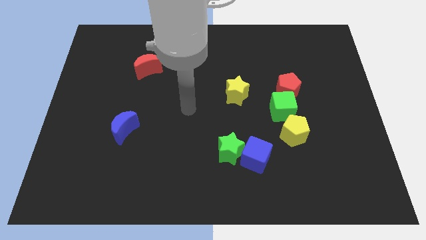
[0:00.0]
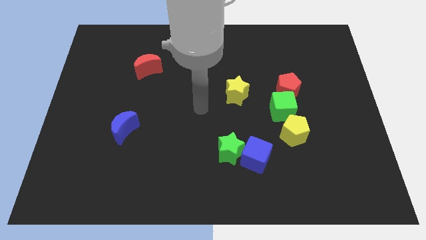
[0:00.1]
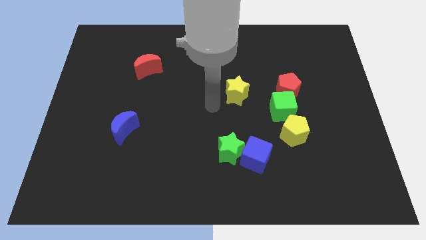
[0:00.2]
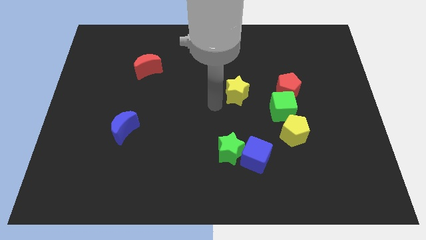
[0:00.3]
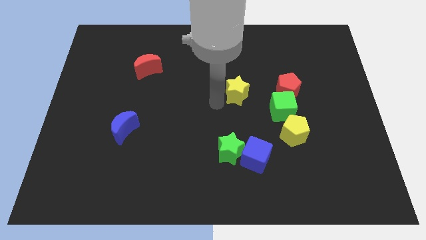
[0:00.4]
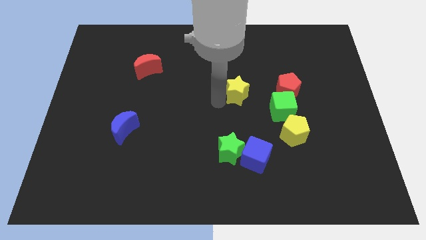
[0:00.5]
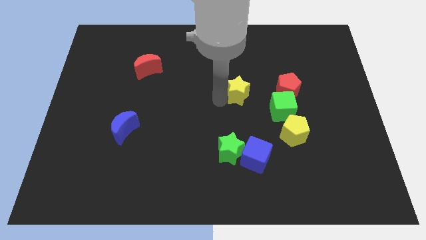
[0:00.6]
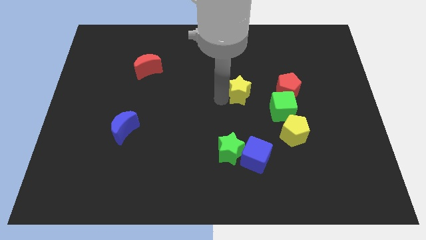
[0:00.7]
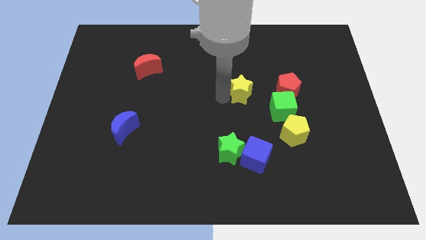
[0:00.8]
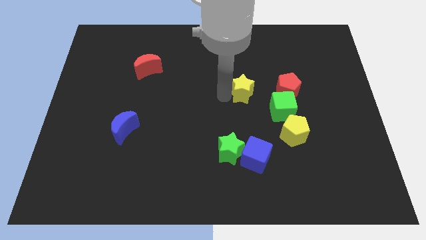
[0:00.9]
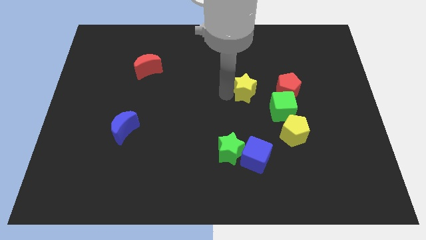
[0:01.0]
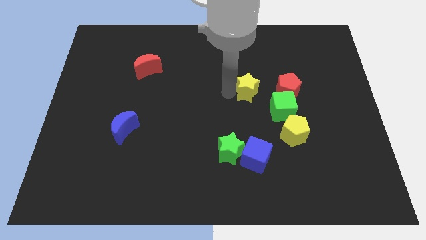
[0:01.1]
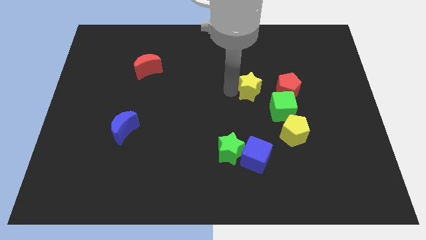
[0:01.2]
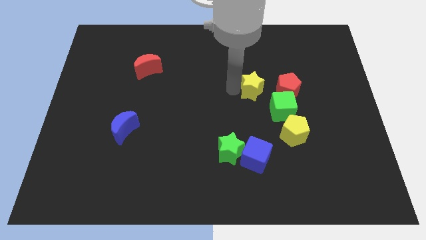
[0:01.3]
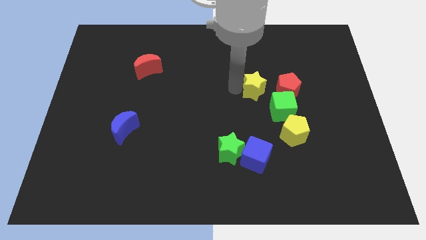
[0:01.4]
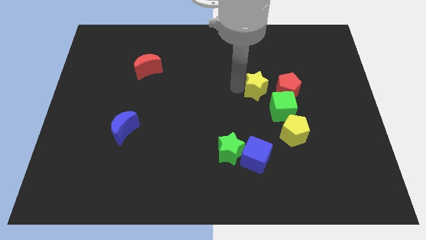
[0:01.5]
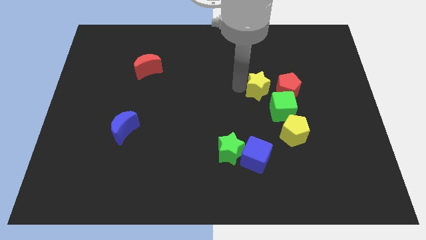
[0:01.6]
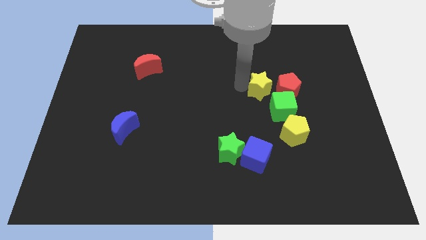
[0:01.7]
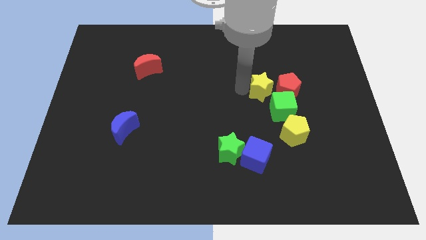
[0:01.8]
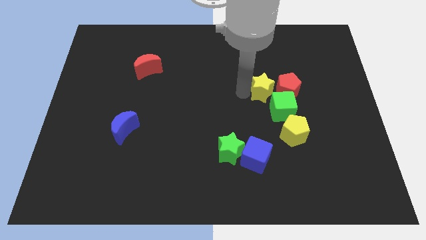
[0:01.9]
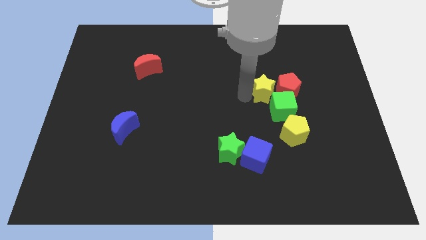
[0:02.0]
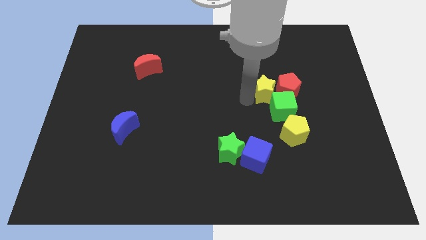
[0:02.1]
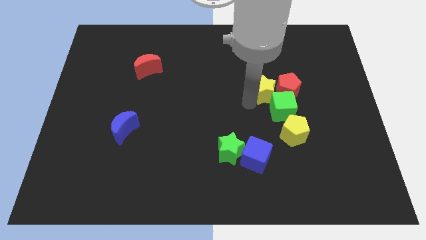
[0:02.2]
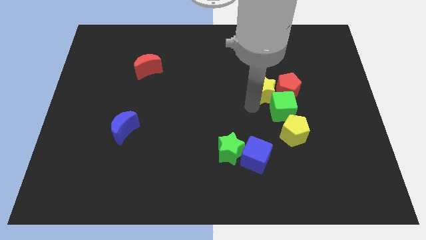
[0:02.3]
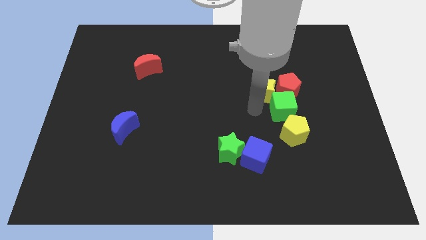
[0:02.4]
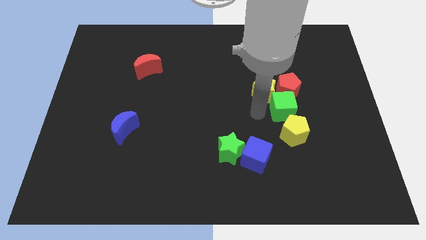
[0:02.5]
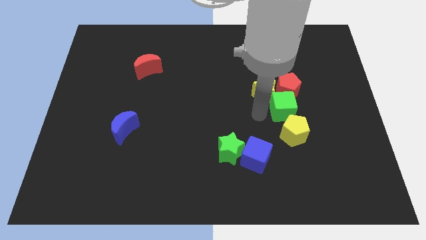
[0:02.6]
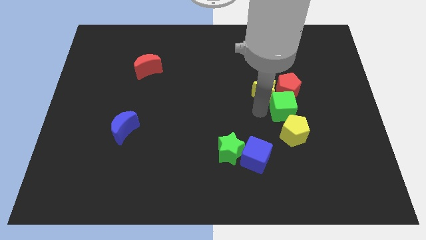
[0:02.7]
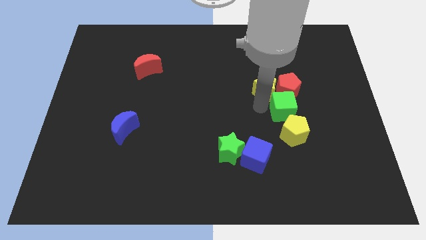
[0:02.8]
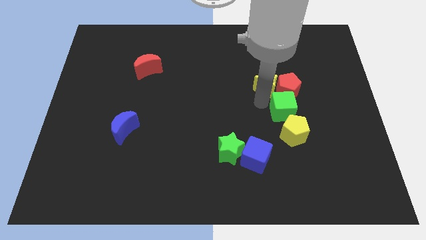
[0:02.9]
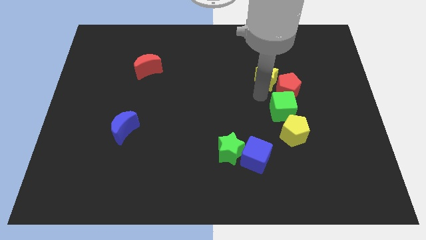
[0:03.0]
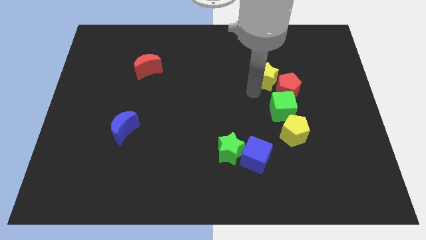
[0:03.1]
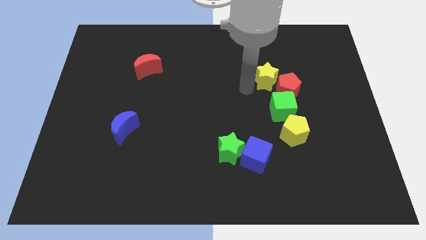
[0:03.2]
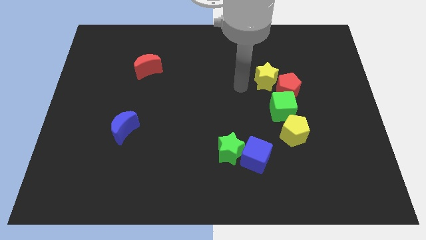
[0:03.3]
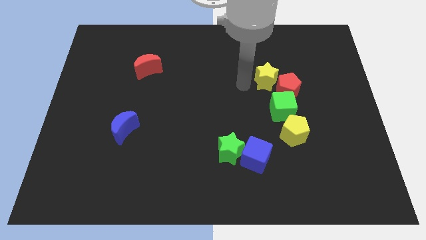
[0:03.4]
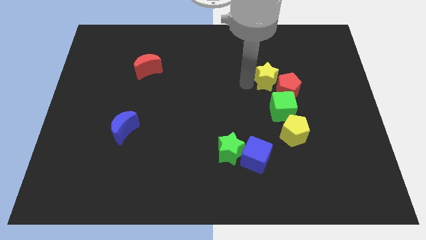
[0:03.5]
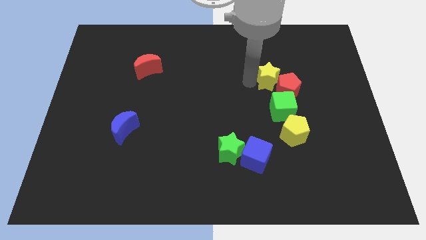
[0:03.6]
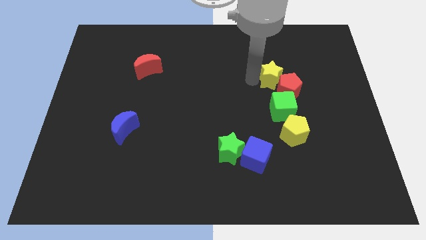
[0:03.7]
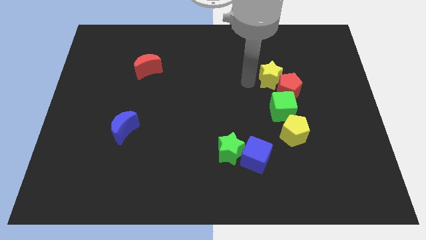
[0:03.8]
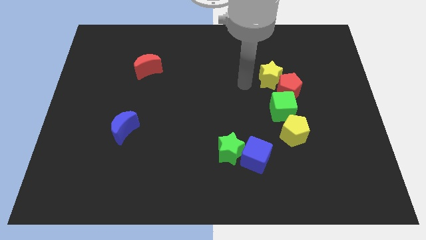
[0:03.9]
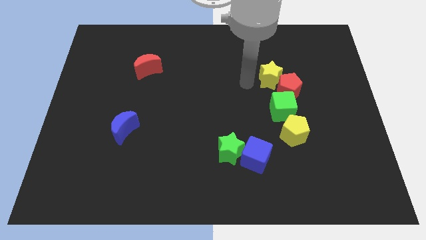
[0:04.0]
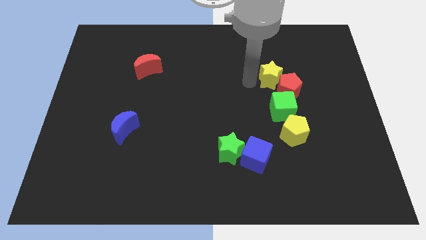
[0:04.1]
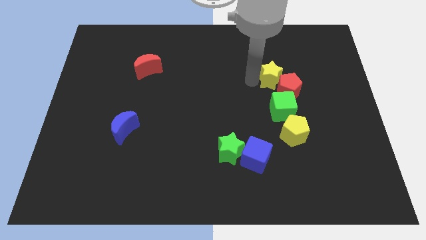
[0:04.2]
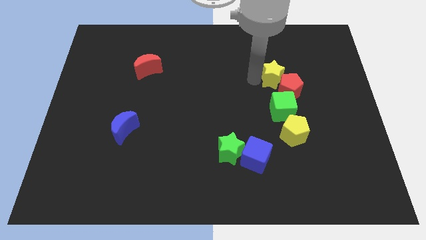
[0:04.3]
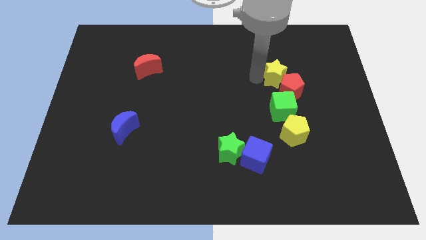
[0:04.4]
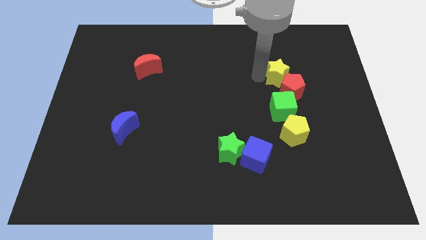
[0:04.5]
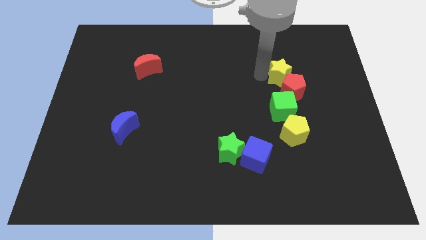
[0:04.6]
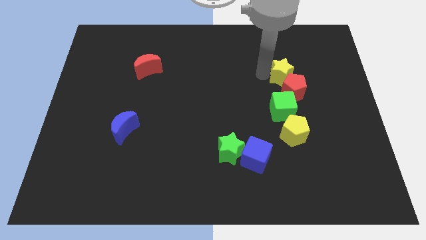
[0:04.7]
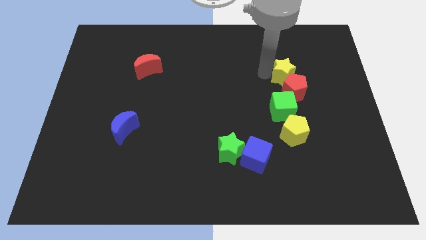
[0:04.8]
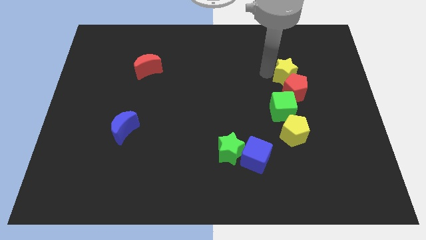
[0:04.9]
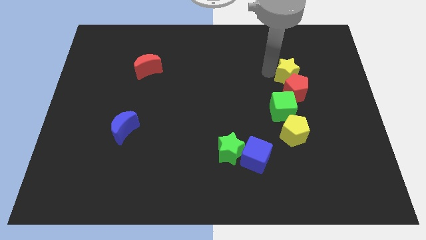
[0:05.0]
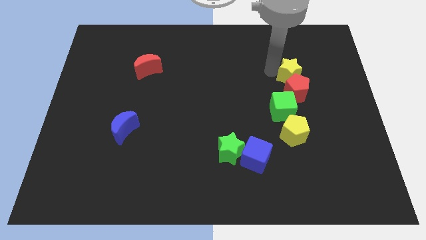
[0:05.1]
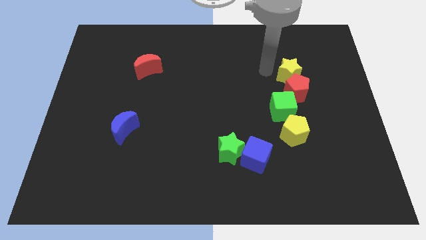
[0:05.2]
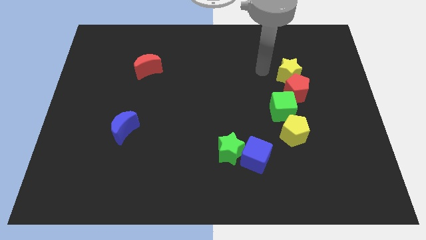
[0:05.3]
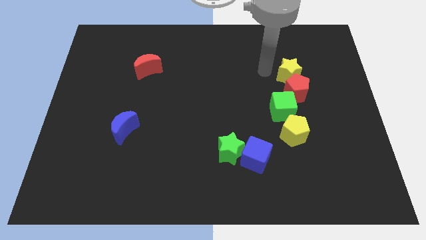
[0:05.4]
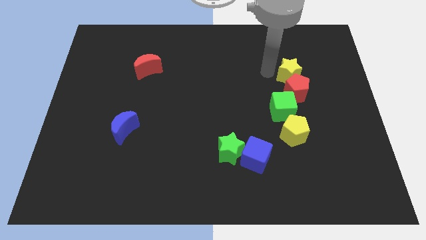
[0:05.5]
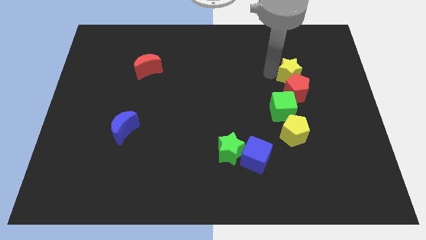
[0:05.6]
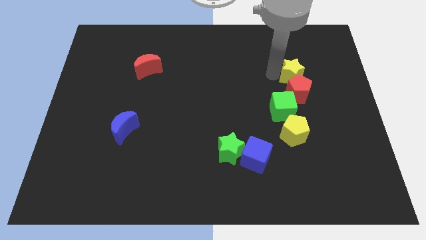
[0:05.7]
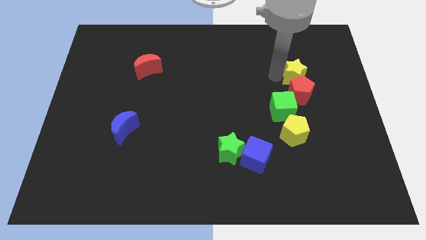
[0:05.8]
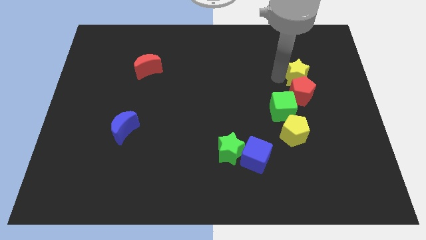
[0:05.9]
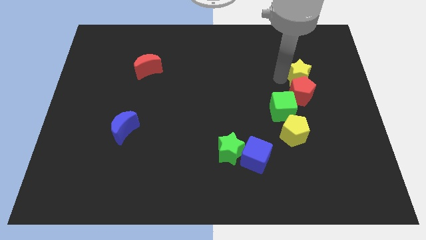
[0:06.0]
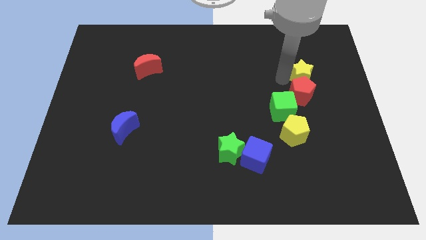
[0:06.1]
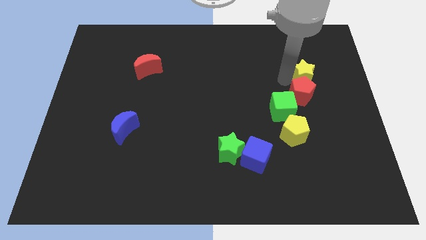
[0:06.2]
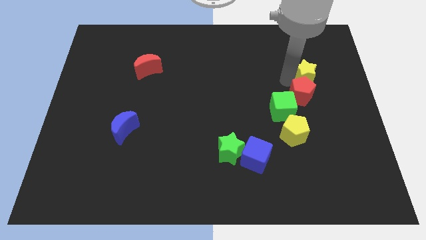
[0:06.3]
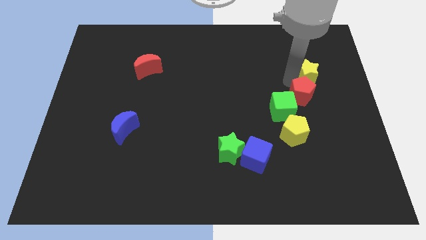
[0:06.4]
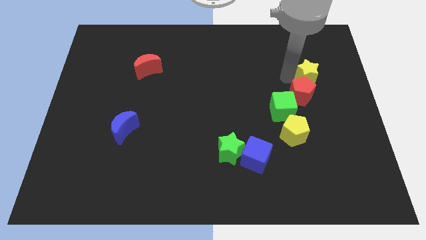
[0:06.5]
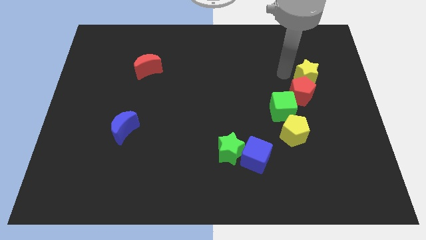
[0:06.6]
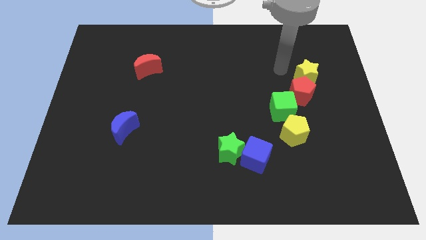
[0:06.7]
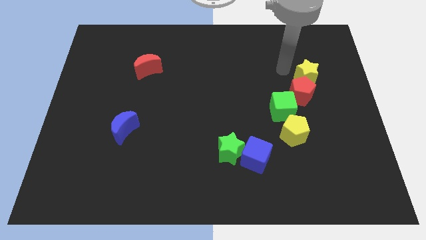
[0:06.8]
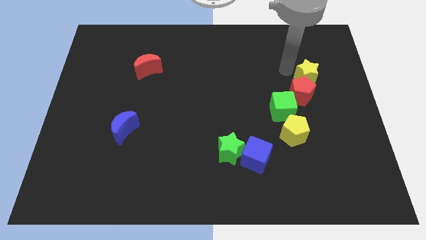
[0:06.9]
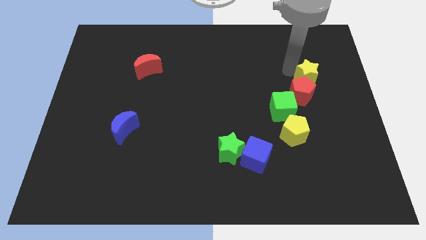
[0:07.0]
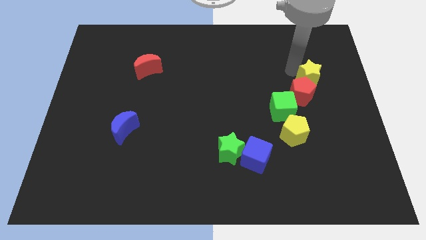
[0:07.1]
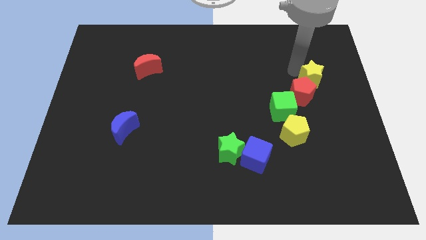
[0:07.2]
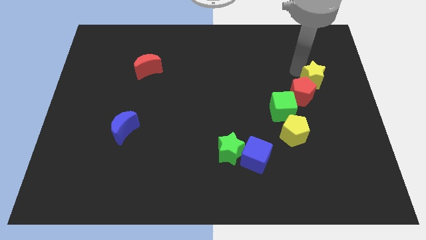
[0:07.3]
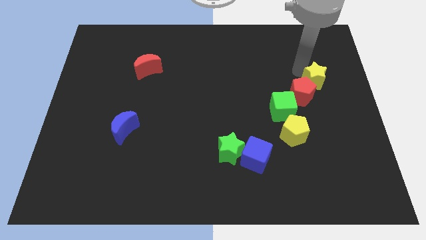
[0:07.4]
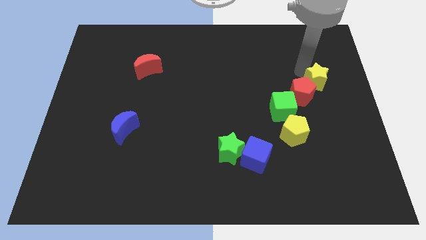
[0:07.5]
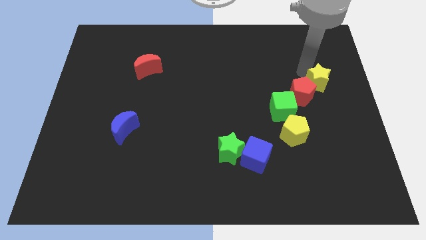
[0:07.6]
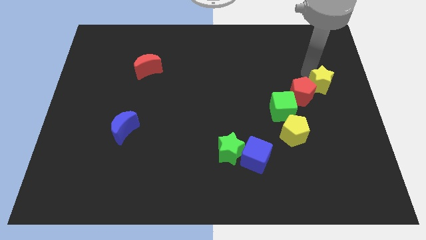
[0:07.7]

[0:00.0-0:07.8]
put the yellow star to the right side

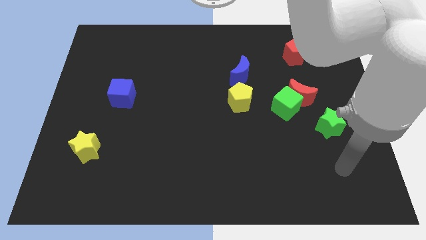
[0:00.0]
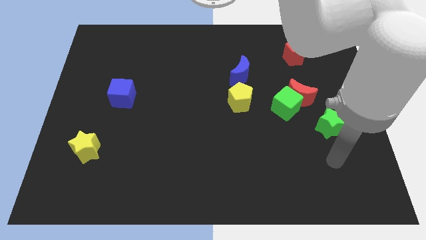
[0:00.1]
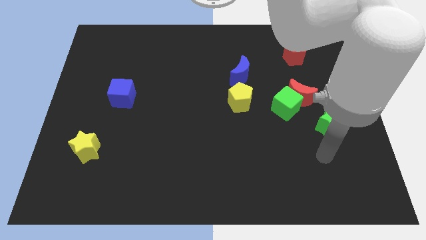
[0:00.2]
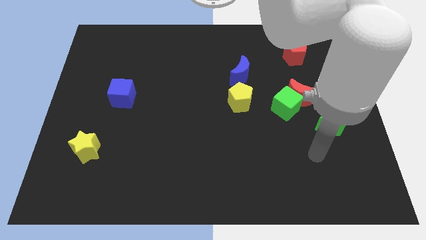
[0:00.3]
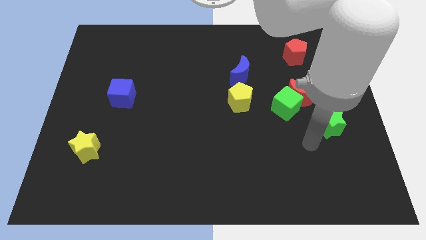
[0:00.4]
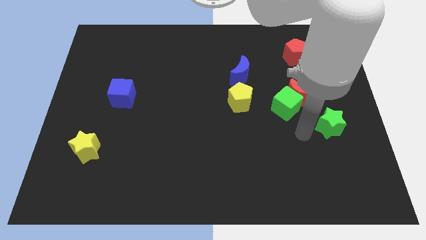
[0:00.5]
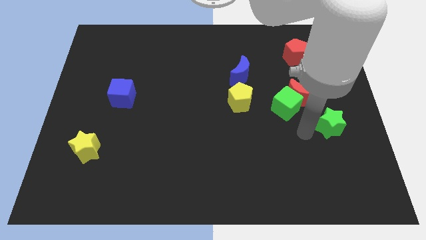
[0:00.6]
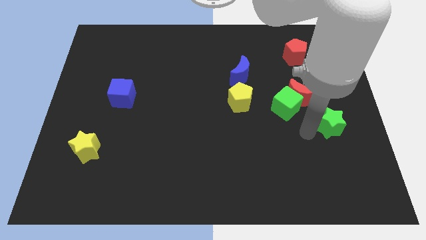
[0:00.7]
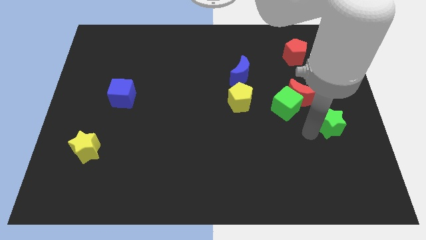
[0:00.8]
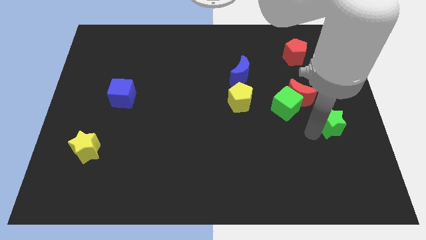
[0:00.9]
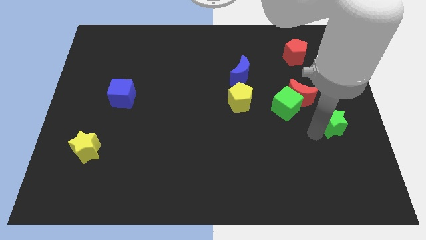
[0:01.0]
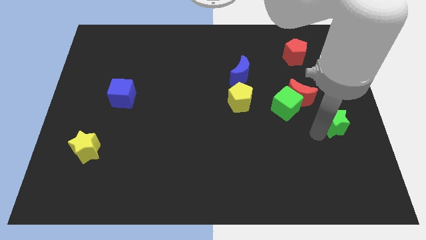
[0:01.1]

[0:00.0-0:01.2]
put the green star to the center right
